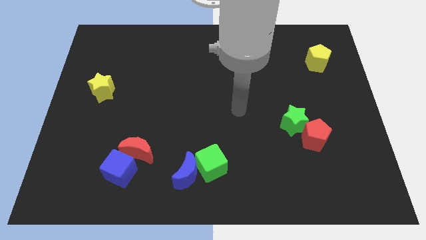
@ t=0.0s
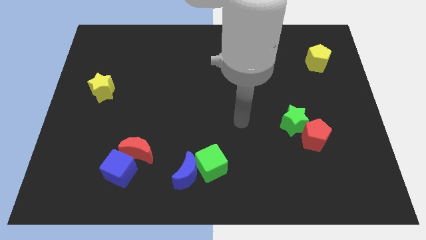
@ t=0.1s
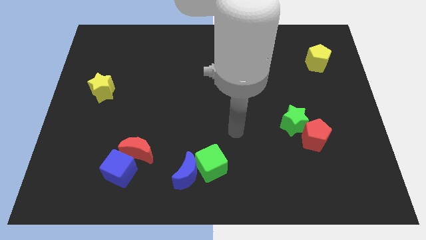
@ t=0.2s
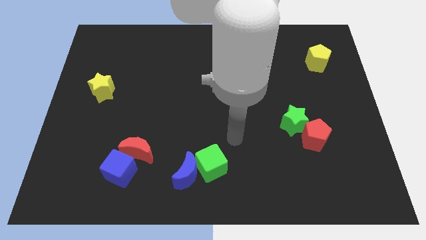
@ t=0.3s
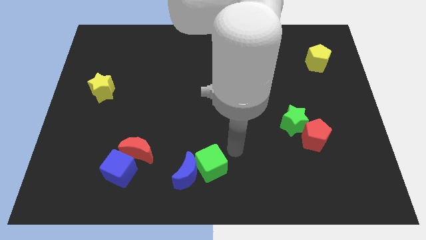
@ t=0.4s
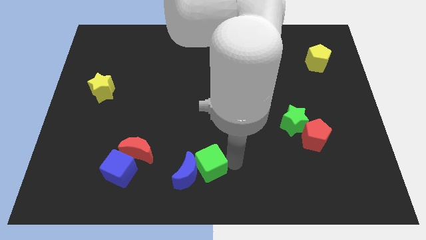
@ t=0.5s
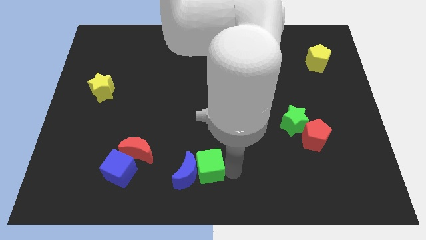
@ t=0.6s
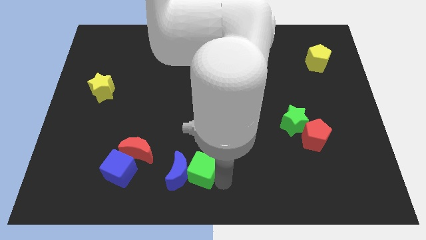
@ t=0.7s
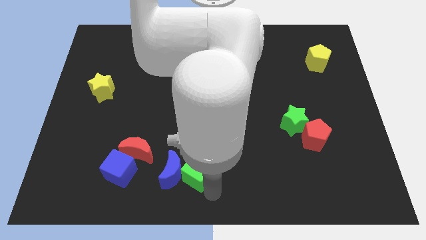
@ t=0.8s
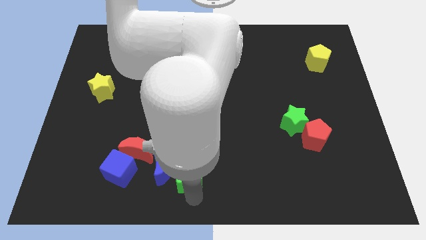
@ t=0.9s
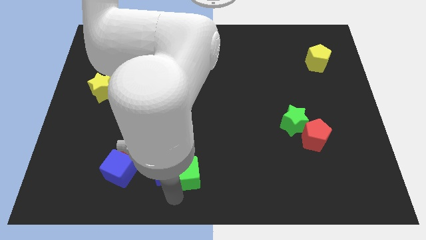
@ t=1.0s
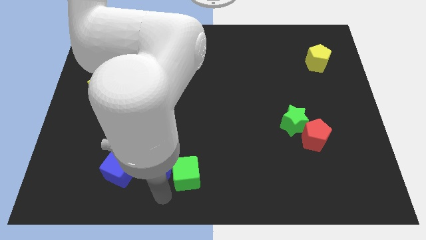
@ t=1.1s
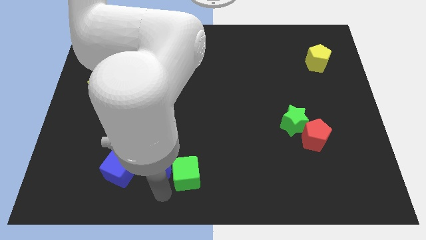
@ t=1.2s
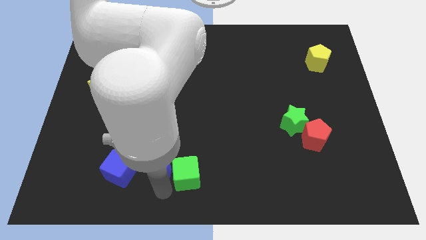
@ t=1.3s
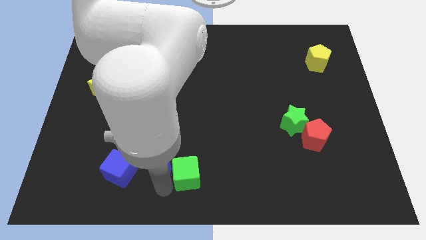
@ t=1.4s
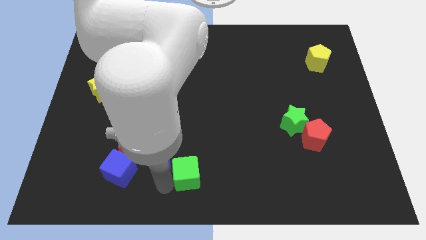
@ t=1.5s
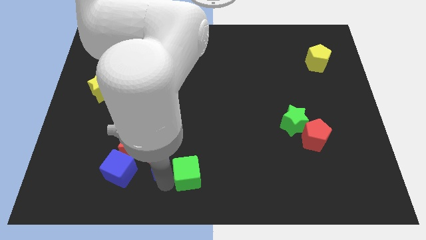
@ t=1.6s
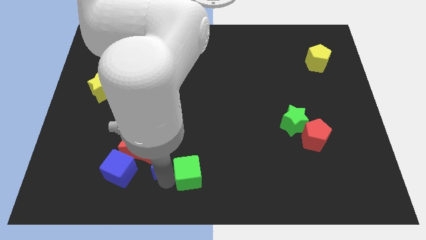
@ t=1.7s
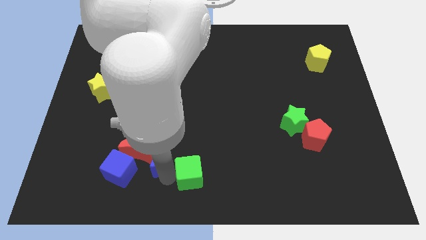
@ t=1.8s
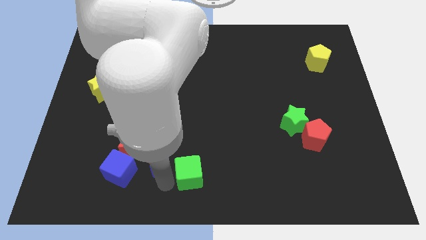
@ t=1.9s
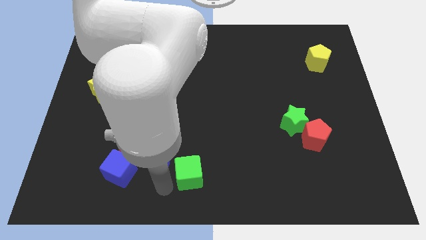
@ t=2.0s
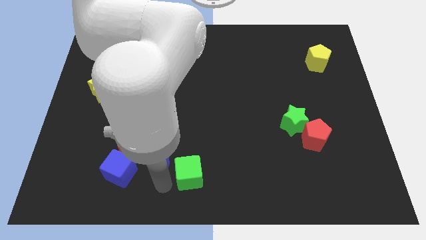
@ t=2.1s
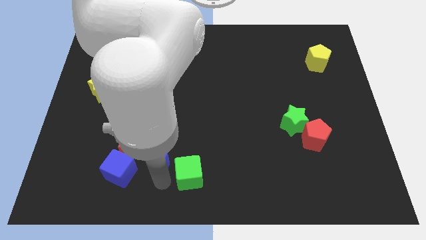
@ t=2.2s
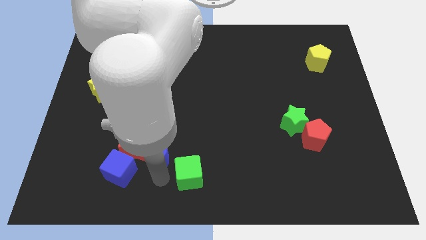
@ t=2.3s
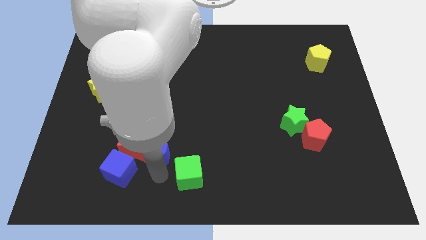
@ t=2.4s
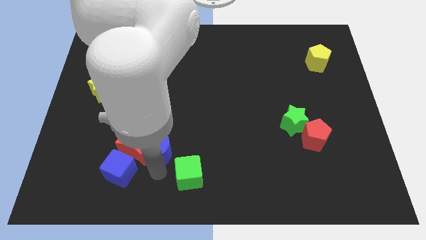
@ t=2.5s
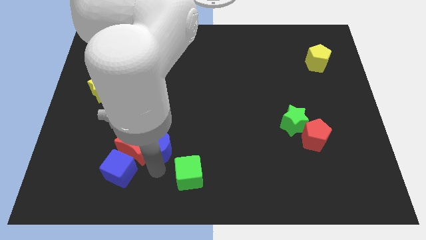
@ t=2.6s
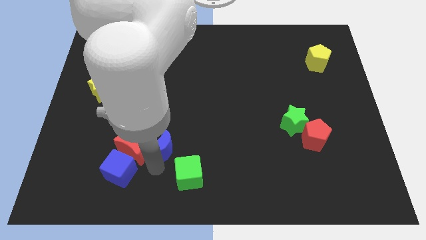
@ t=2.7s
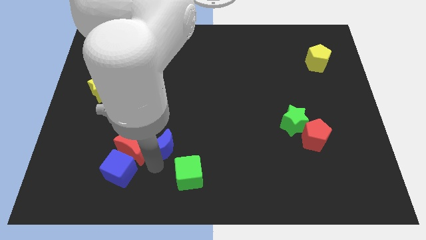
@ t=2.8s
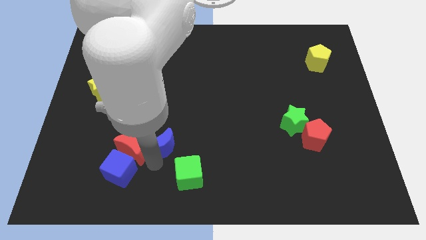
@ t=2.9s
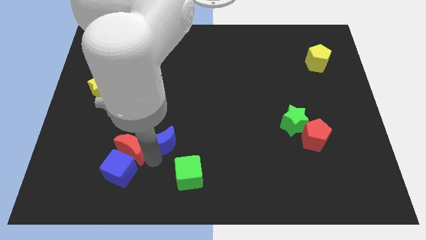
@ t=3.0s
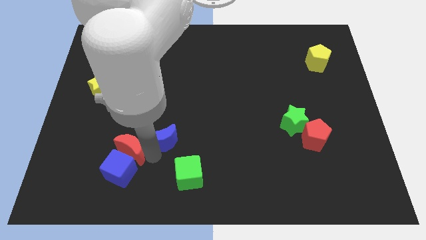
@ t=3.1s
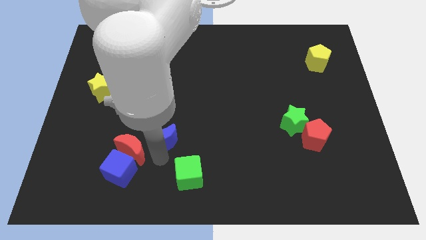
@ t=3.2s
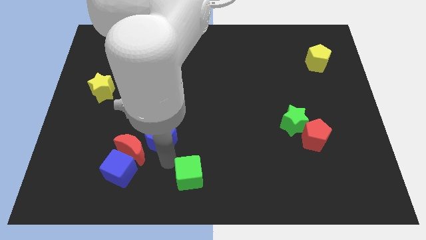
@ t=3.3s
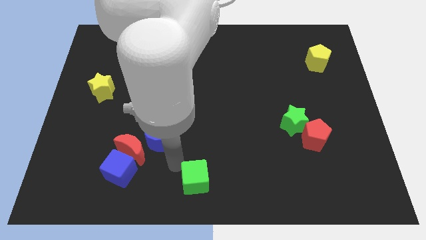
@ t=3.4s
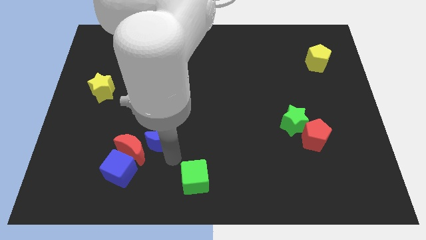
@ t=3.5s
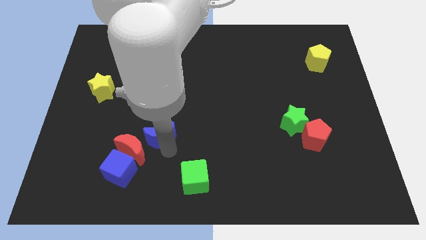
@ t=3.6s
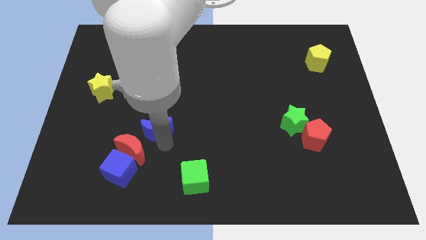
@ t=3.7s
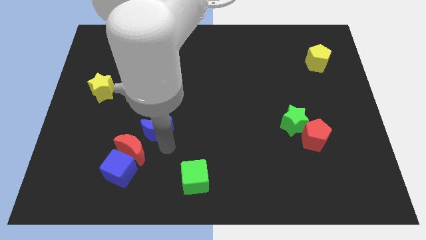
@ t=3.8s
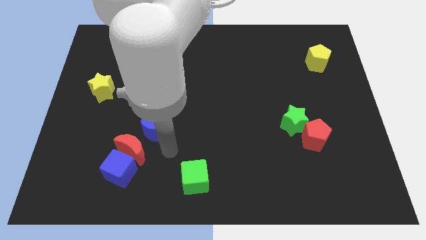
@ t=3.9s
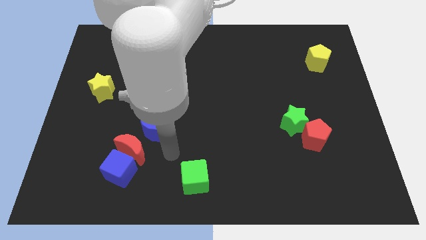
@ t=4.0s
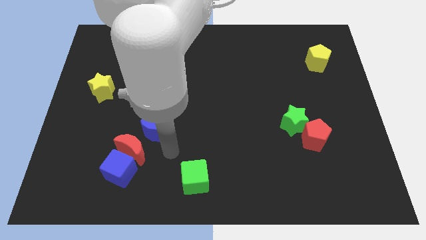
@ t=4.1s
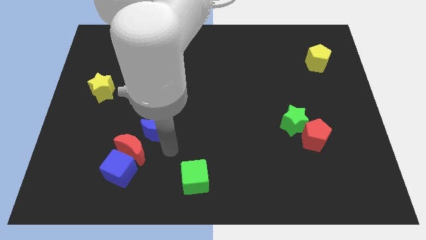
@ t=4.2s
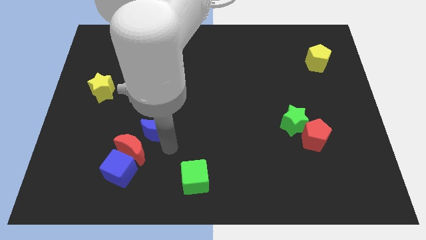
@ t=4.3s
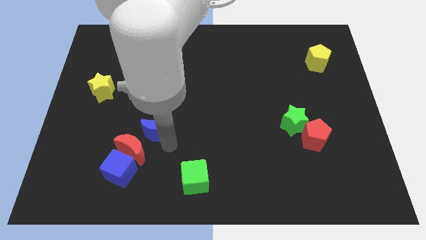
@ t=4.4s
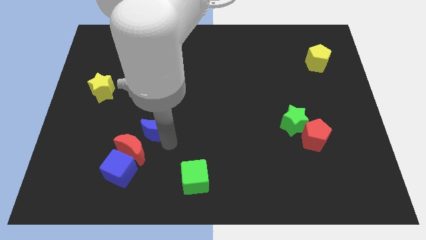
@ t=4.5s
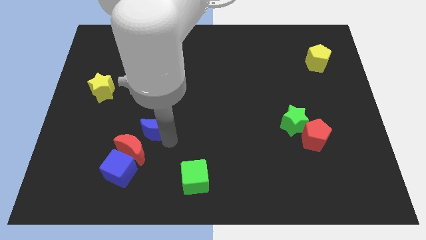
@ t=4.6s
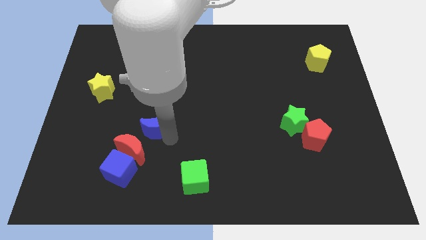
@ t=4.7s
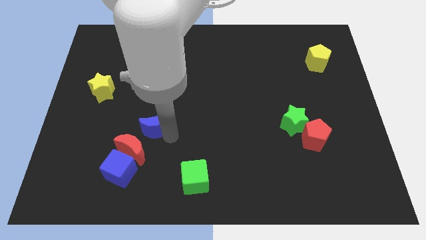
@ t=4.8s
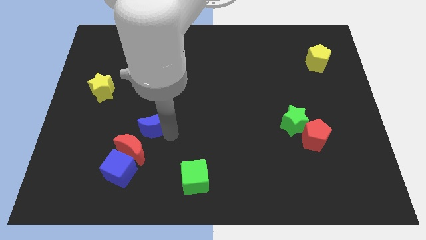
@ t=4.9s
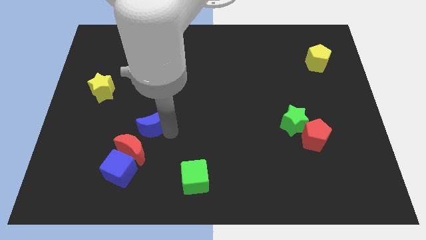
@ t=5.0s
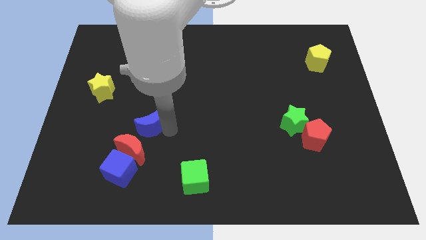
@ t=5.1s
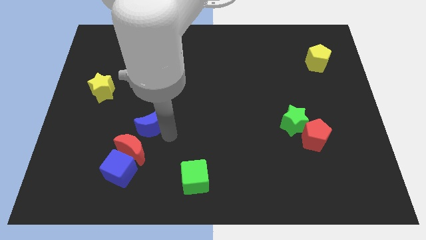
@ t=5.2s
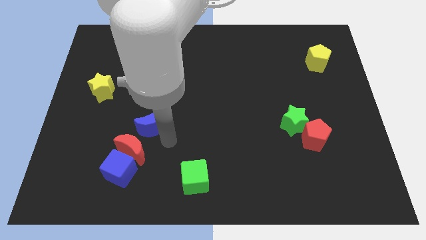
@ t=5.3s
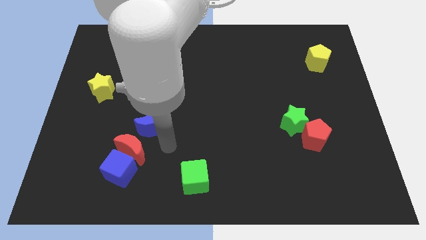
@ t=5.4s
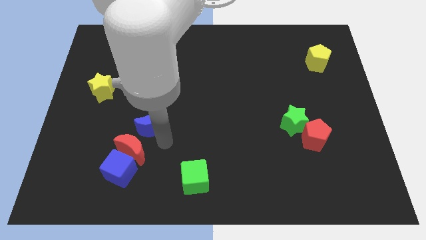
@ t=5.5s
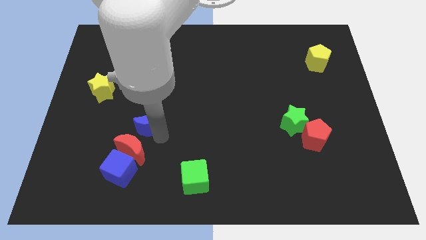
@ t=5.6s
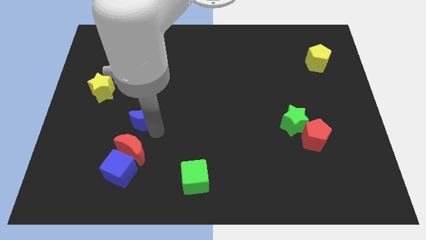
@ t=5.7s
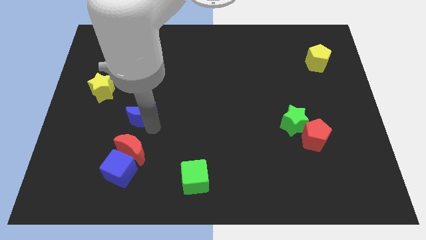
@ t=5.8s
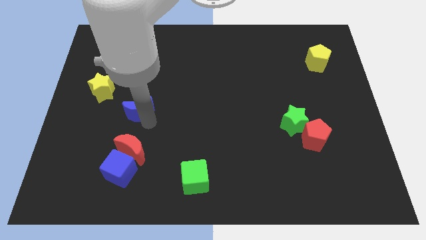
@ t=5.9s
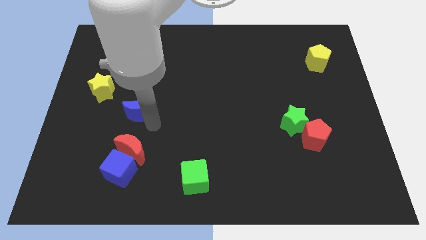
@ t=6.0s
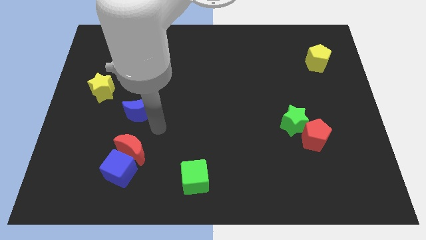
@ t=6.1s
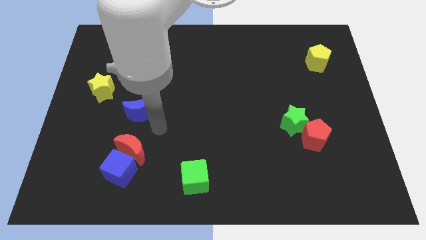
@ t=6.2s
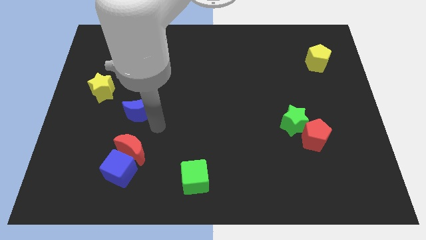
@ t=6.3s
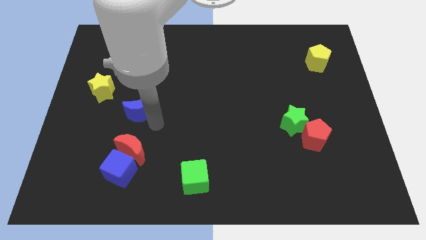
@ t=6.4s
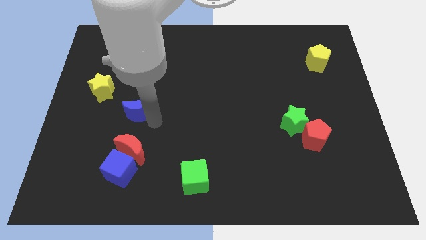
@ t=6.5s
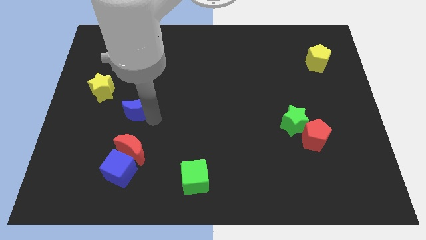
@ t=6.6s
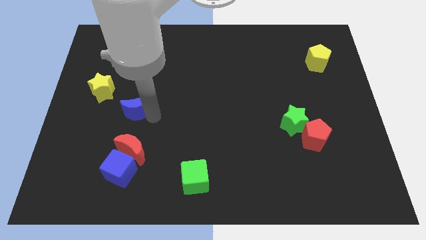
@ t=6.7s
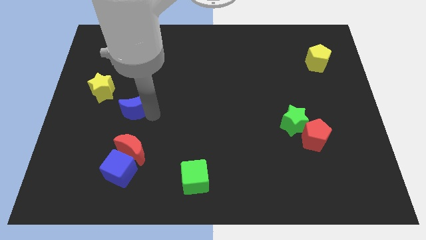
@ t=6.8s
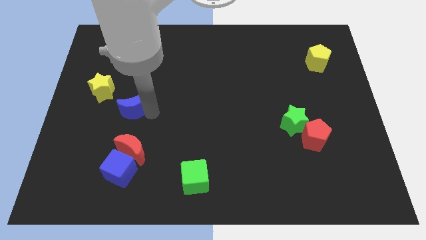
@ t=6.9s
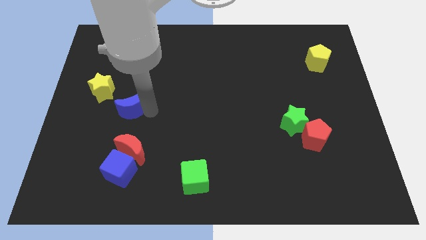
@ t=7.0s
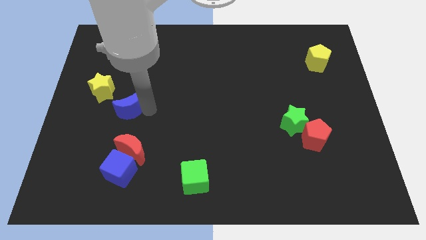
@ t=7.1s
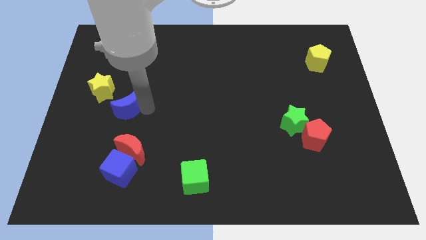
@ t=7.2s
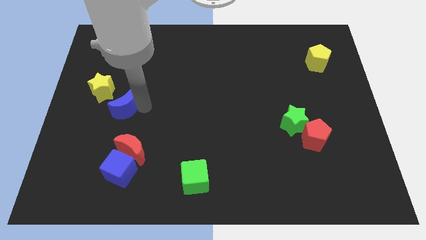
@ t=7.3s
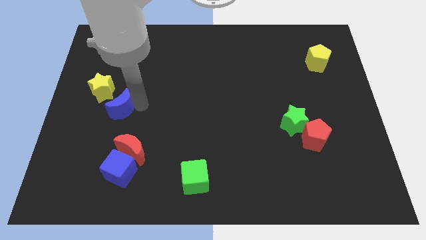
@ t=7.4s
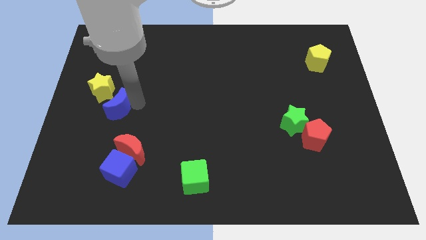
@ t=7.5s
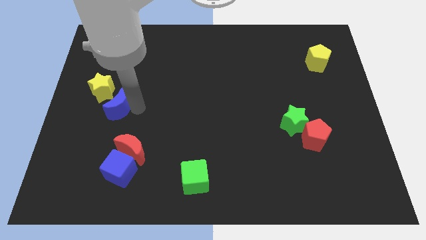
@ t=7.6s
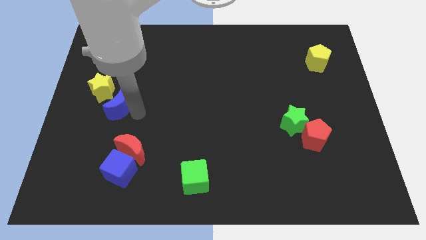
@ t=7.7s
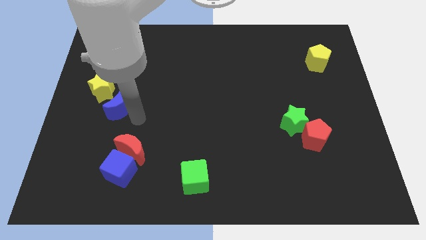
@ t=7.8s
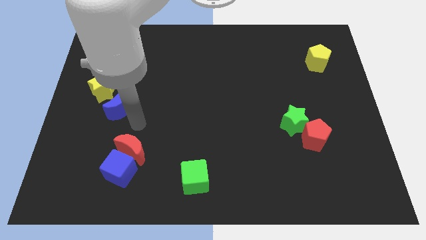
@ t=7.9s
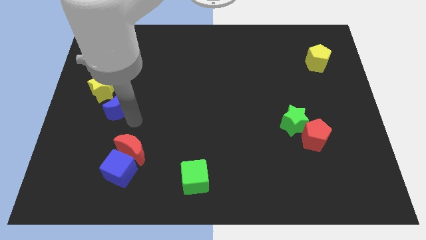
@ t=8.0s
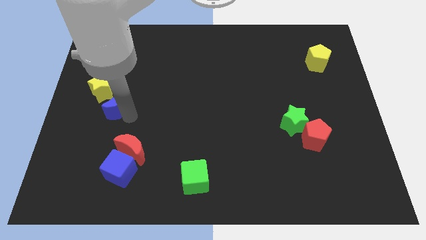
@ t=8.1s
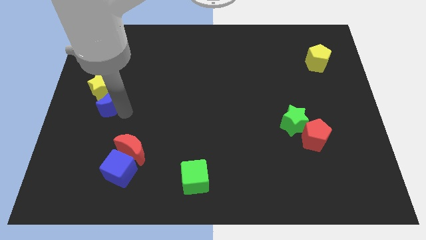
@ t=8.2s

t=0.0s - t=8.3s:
slide the blue moon to the yellow star
